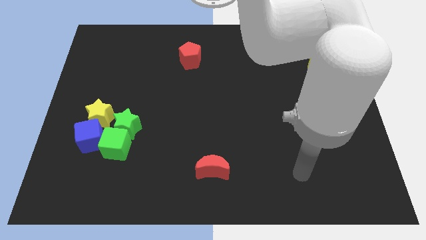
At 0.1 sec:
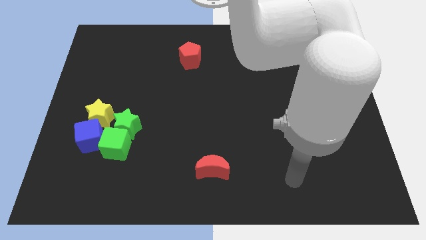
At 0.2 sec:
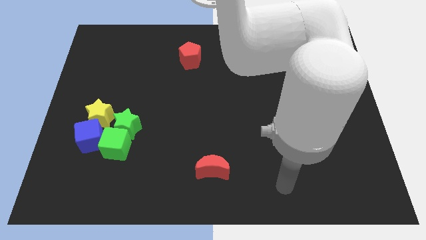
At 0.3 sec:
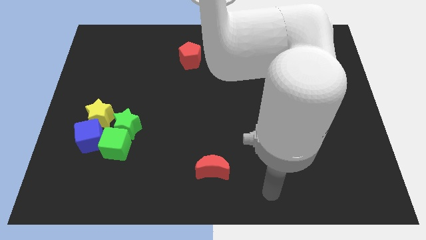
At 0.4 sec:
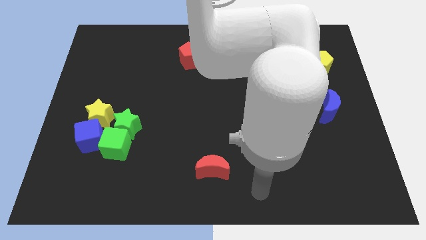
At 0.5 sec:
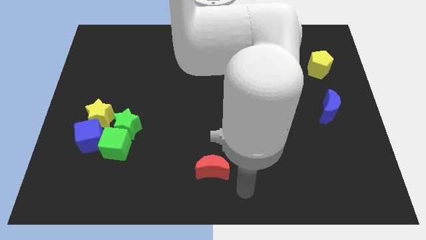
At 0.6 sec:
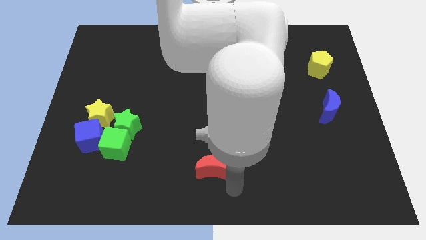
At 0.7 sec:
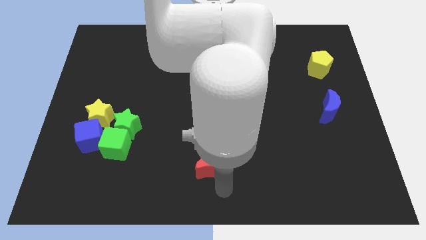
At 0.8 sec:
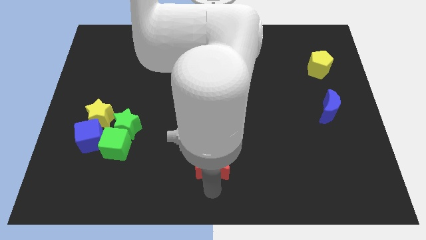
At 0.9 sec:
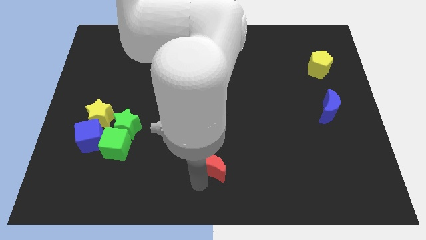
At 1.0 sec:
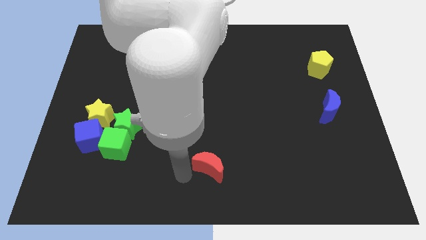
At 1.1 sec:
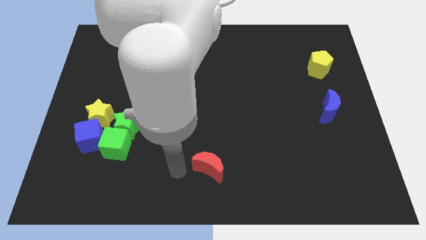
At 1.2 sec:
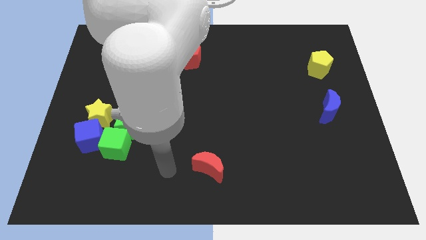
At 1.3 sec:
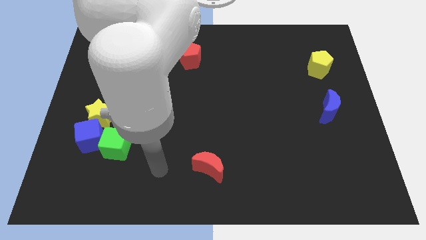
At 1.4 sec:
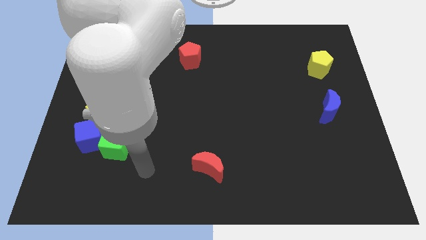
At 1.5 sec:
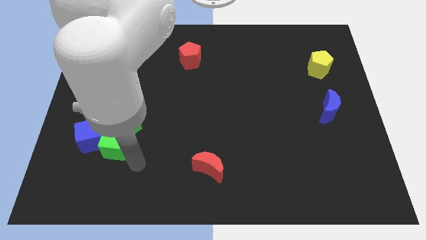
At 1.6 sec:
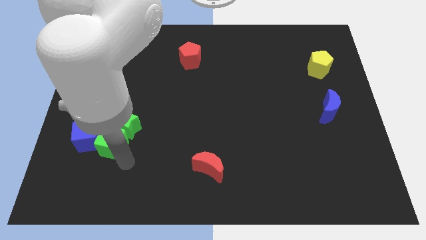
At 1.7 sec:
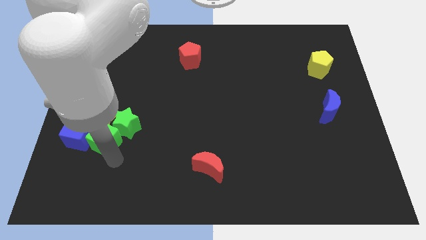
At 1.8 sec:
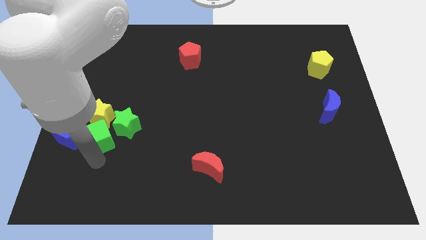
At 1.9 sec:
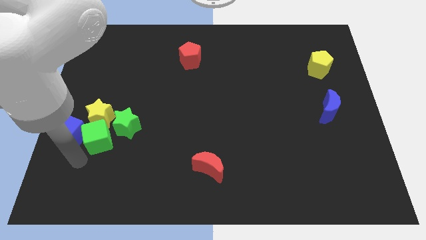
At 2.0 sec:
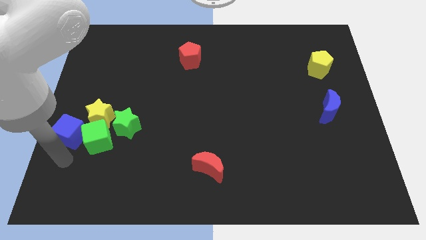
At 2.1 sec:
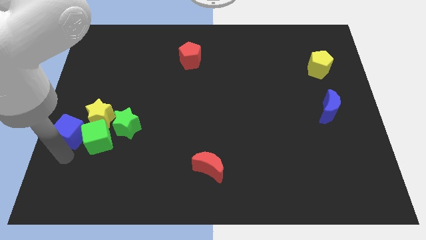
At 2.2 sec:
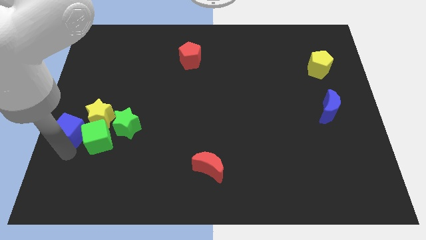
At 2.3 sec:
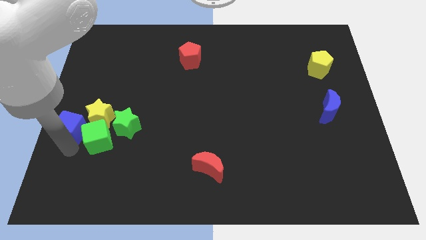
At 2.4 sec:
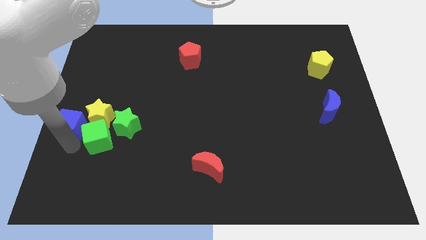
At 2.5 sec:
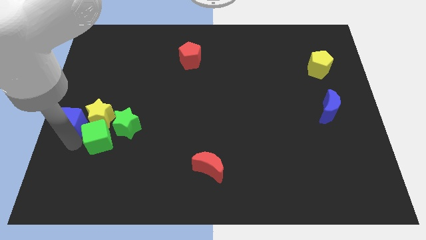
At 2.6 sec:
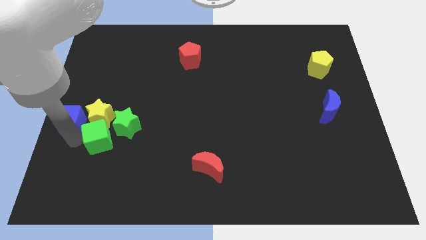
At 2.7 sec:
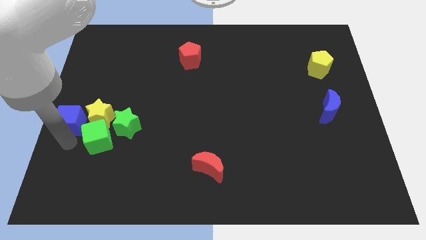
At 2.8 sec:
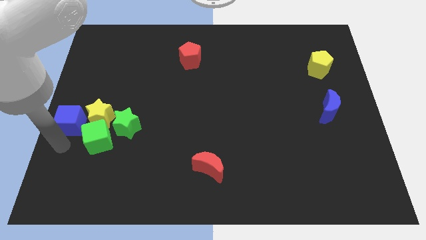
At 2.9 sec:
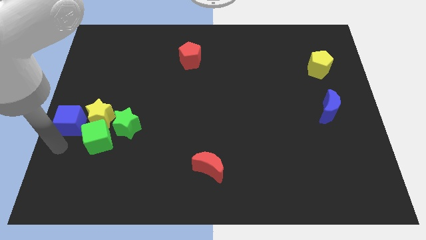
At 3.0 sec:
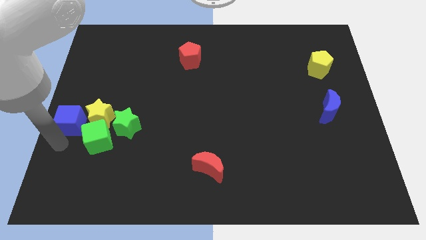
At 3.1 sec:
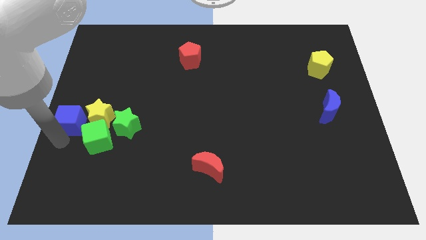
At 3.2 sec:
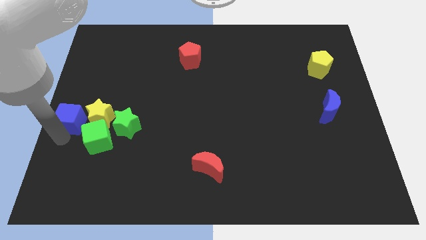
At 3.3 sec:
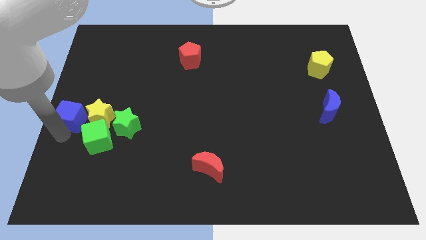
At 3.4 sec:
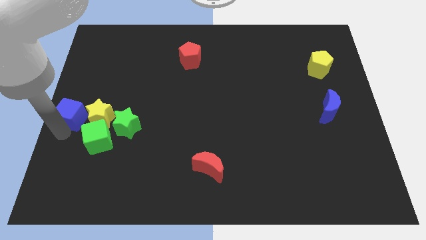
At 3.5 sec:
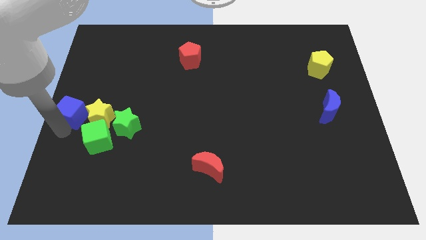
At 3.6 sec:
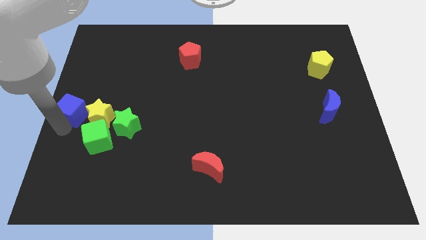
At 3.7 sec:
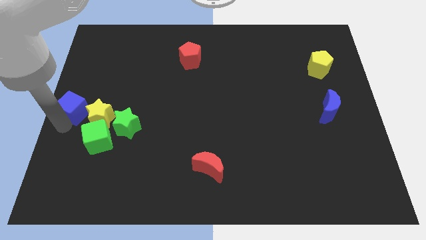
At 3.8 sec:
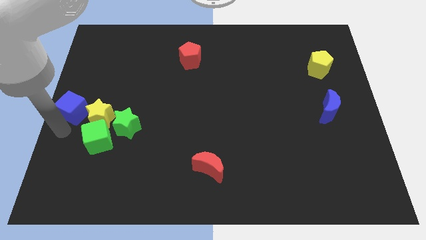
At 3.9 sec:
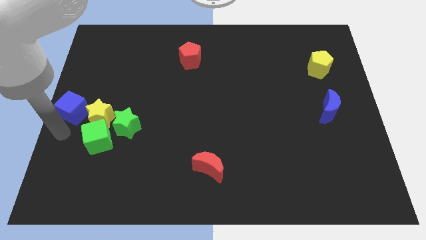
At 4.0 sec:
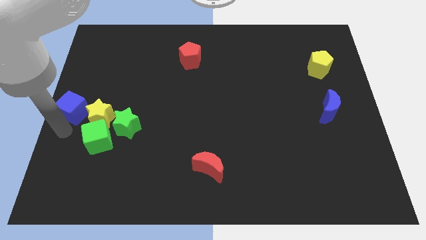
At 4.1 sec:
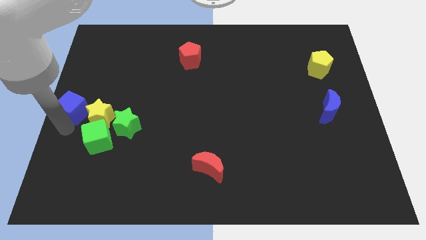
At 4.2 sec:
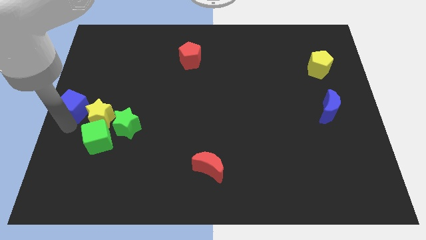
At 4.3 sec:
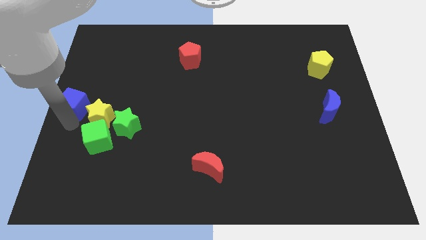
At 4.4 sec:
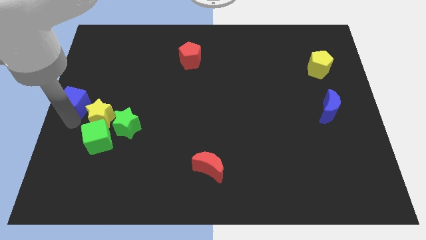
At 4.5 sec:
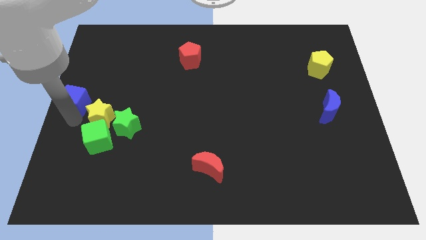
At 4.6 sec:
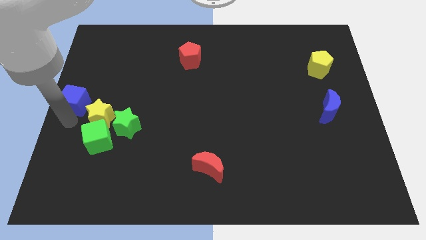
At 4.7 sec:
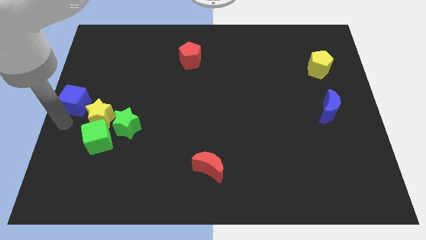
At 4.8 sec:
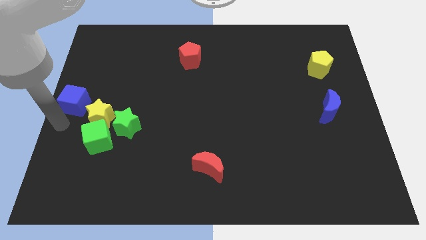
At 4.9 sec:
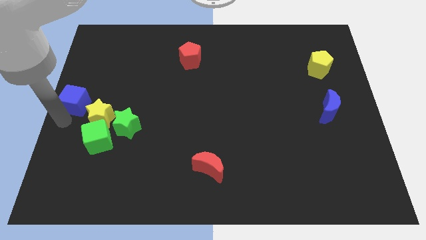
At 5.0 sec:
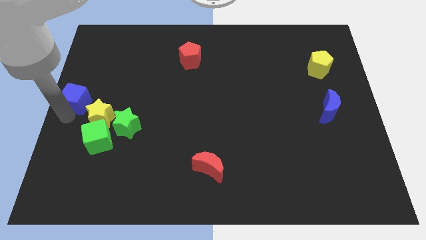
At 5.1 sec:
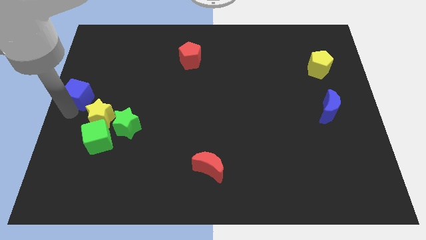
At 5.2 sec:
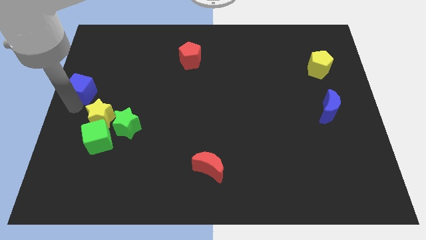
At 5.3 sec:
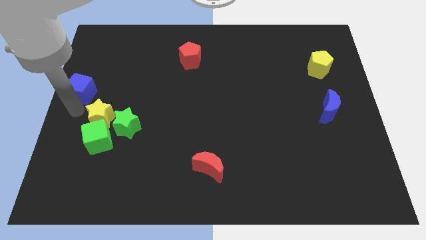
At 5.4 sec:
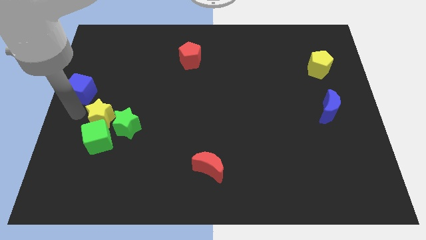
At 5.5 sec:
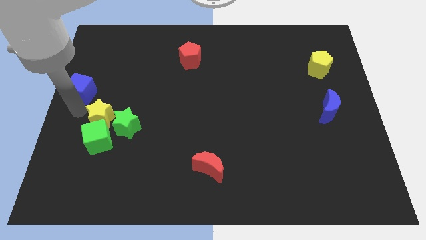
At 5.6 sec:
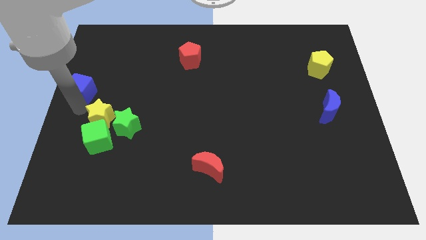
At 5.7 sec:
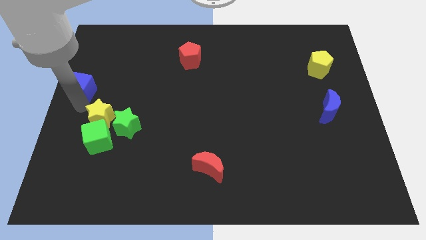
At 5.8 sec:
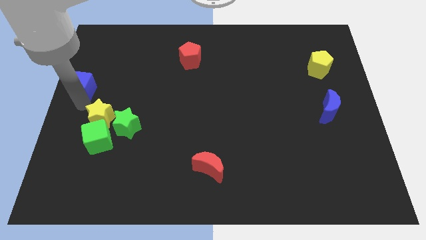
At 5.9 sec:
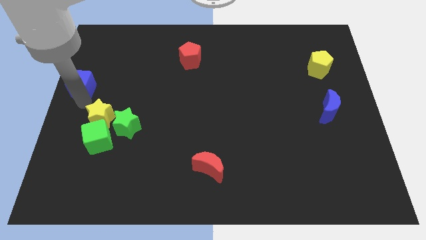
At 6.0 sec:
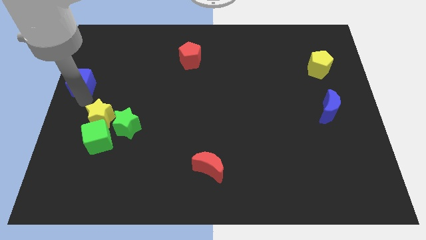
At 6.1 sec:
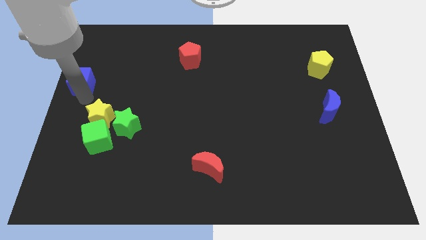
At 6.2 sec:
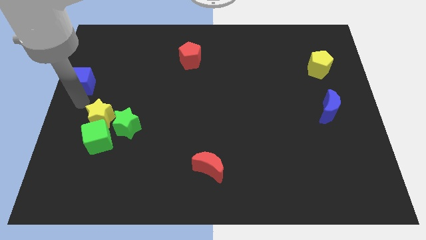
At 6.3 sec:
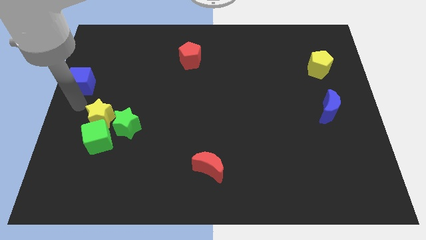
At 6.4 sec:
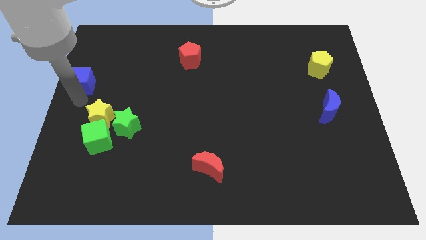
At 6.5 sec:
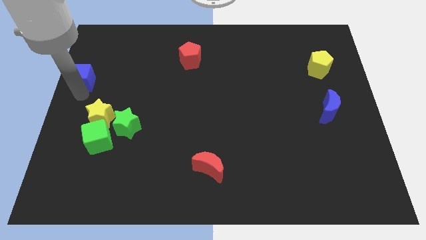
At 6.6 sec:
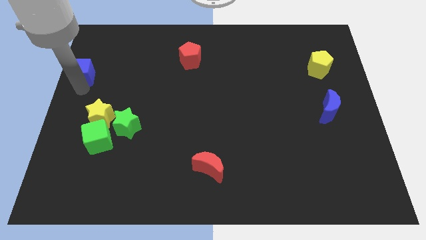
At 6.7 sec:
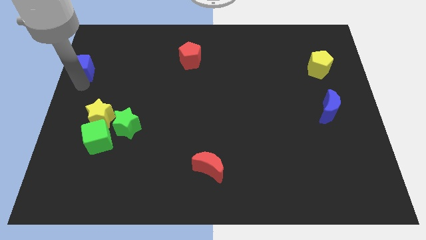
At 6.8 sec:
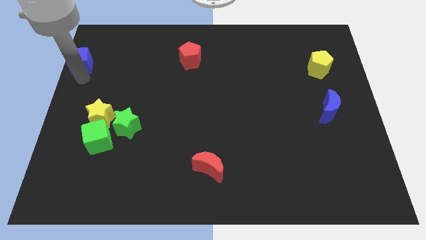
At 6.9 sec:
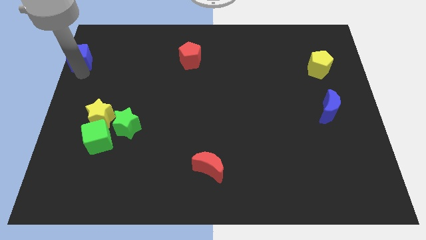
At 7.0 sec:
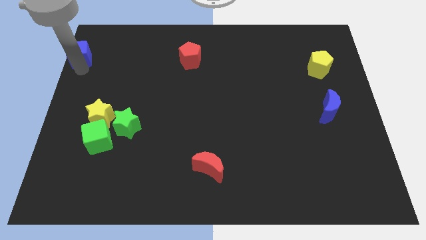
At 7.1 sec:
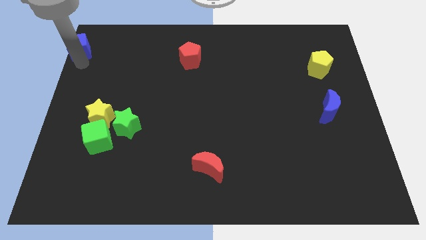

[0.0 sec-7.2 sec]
move the blue cube to the upper left corner
